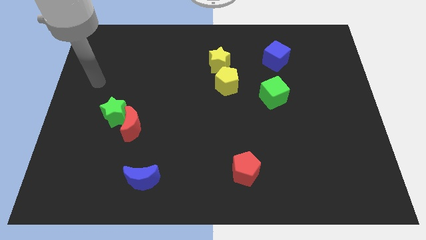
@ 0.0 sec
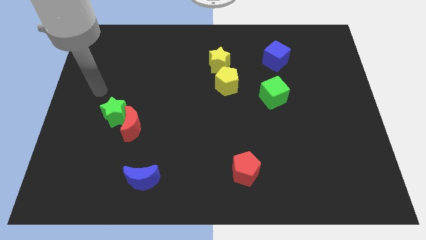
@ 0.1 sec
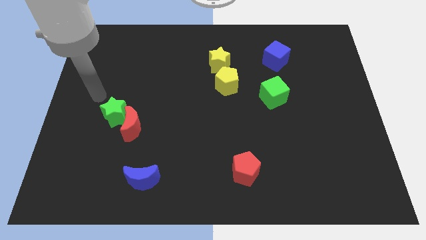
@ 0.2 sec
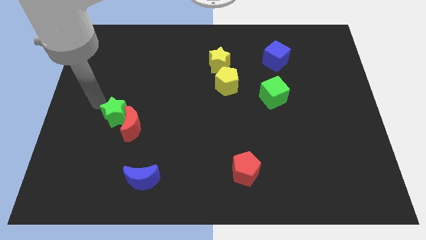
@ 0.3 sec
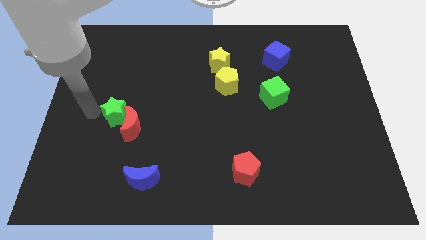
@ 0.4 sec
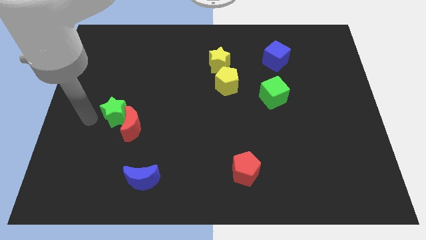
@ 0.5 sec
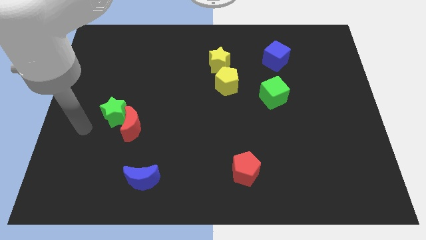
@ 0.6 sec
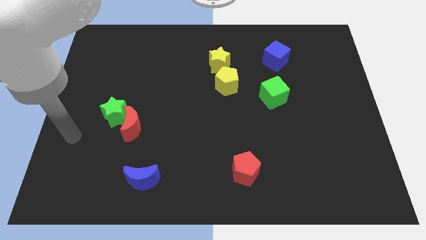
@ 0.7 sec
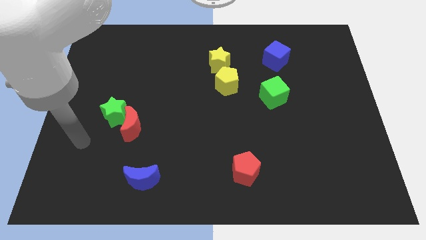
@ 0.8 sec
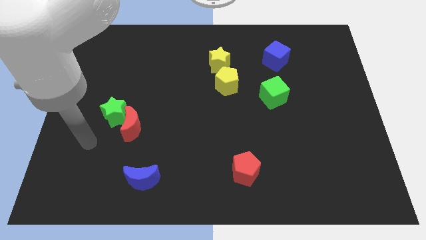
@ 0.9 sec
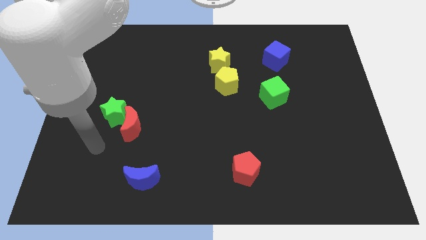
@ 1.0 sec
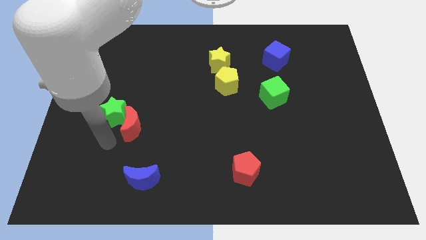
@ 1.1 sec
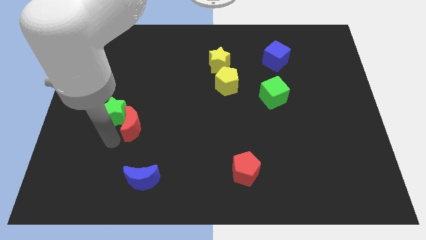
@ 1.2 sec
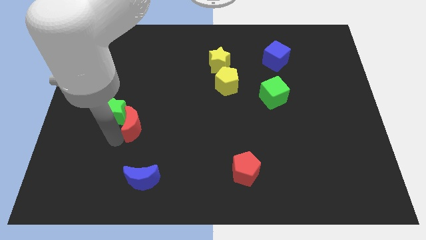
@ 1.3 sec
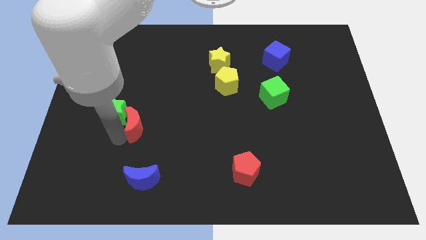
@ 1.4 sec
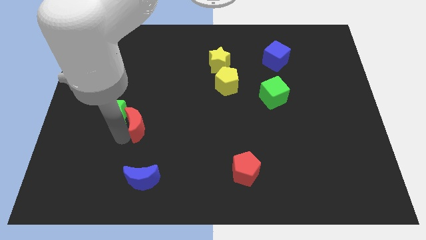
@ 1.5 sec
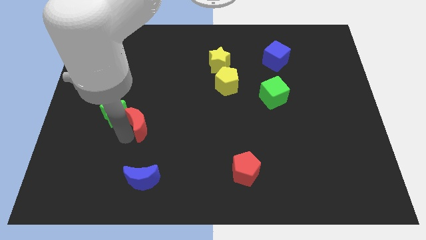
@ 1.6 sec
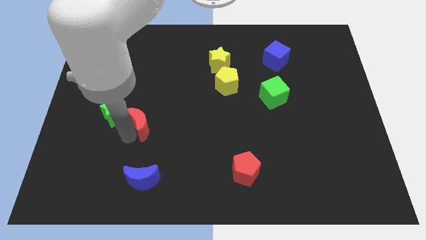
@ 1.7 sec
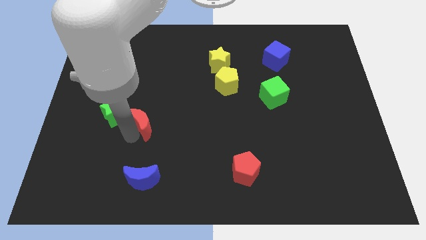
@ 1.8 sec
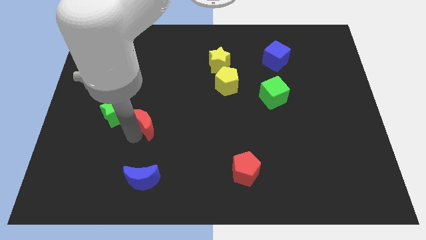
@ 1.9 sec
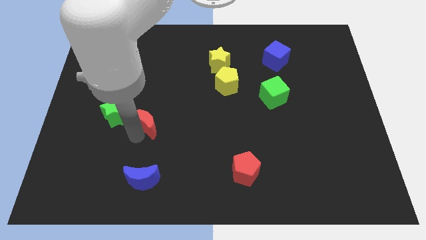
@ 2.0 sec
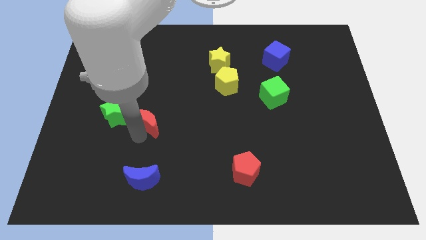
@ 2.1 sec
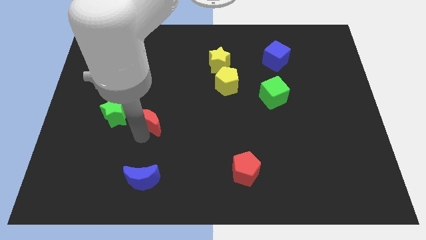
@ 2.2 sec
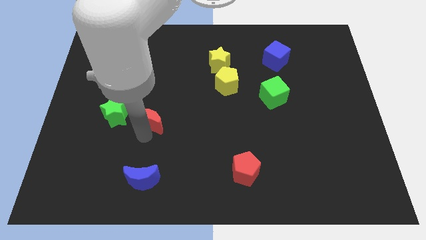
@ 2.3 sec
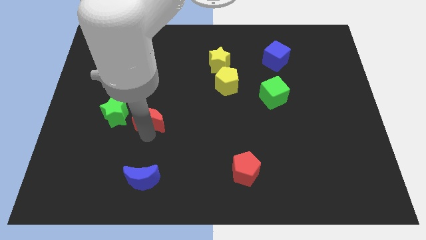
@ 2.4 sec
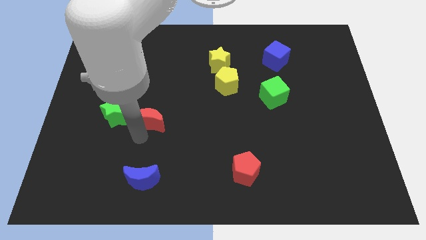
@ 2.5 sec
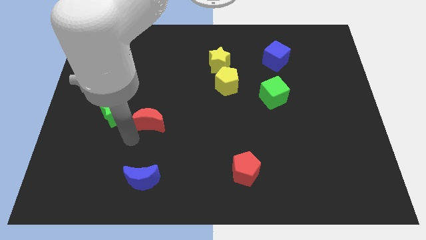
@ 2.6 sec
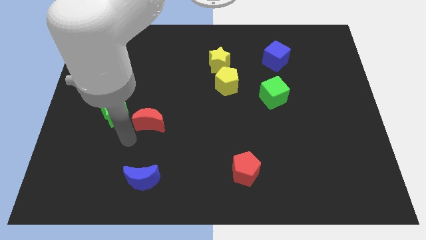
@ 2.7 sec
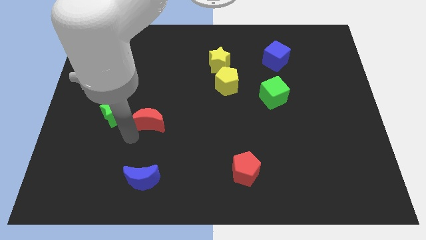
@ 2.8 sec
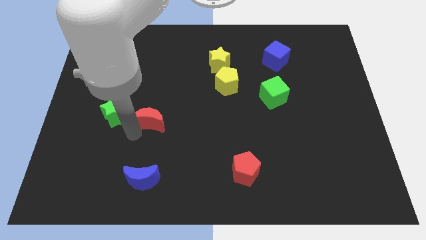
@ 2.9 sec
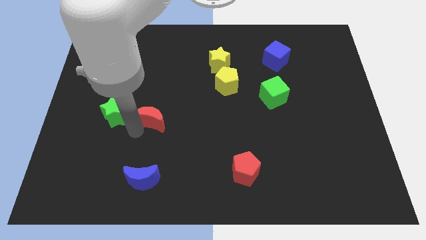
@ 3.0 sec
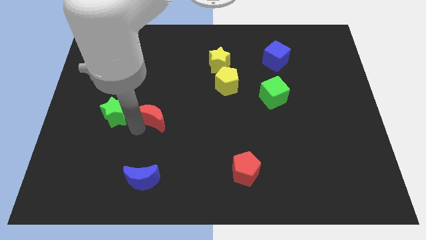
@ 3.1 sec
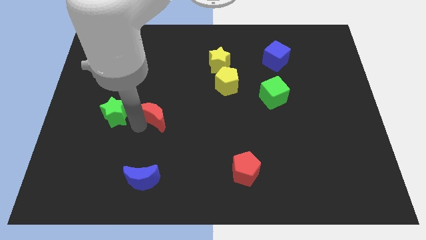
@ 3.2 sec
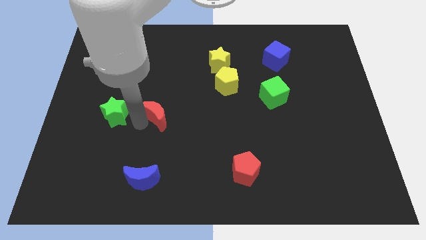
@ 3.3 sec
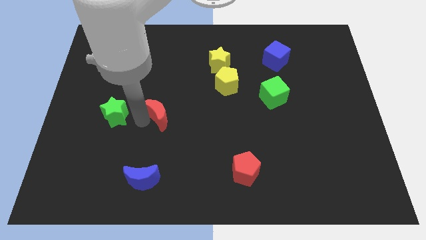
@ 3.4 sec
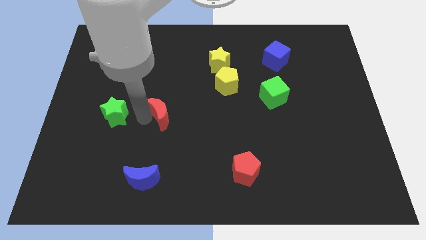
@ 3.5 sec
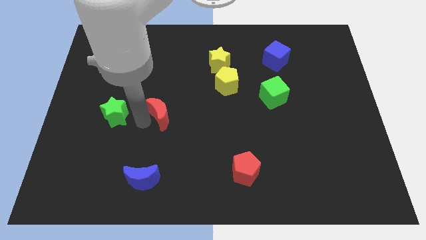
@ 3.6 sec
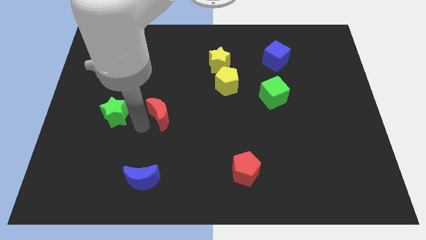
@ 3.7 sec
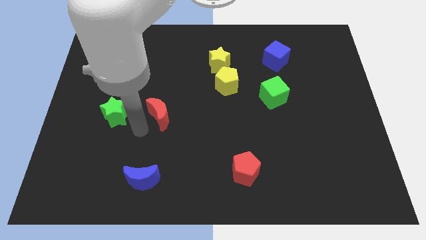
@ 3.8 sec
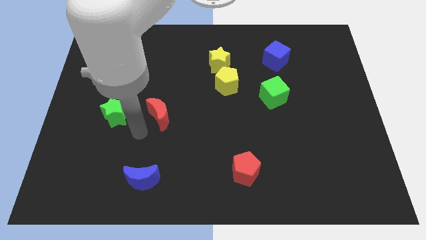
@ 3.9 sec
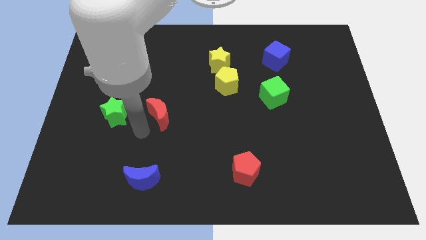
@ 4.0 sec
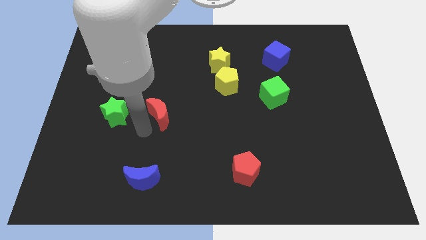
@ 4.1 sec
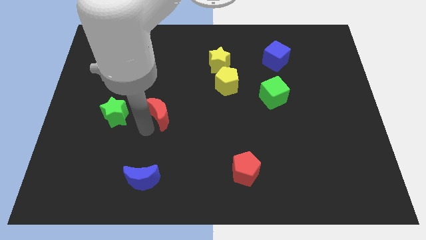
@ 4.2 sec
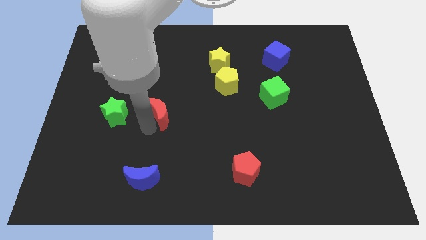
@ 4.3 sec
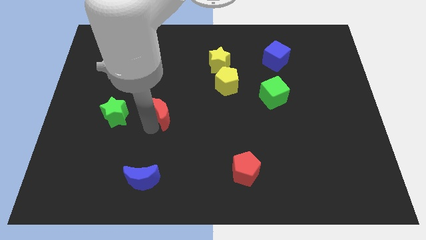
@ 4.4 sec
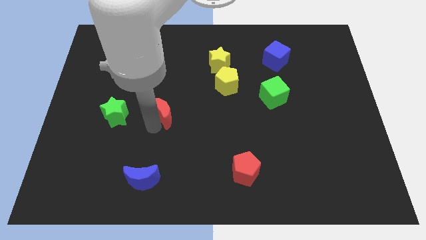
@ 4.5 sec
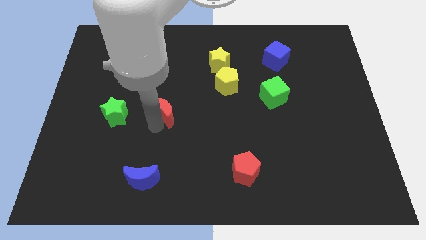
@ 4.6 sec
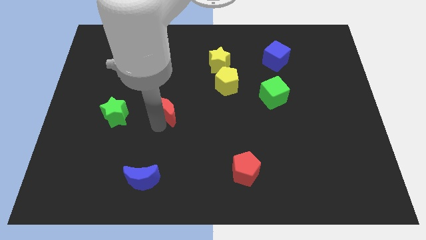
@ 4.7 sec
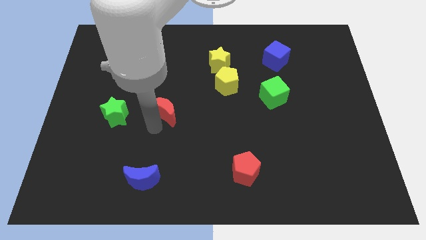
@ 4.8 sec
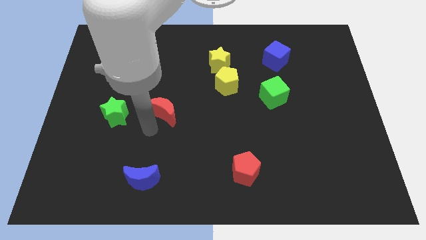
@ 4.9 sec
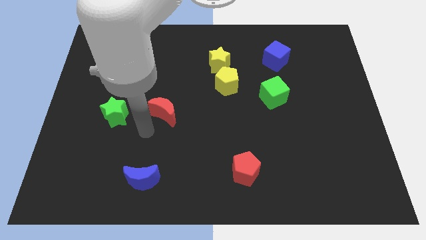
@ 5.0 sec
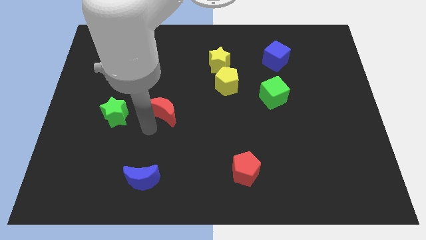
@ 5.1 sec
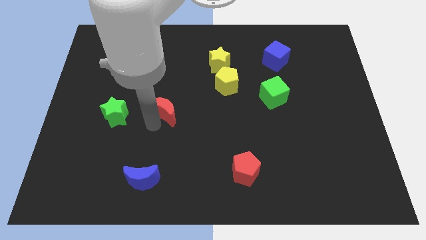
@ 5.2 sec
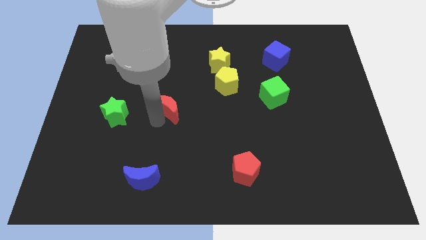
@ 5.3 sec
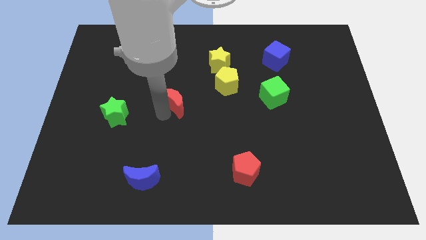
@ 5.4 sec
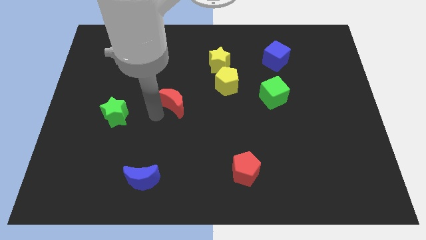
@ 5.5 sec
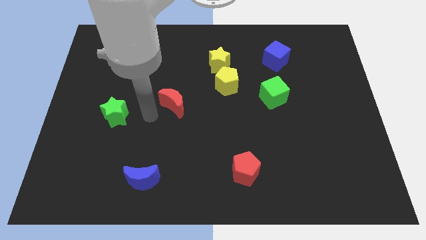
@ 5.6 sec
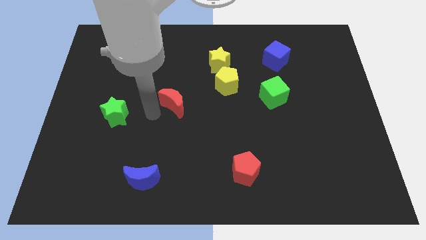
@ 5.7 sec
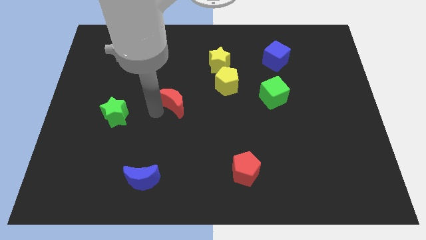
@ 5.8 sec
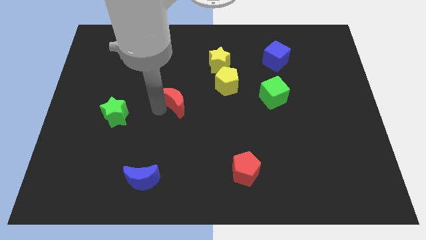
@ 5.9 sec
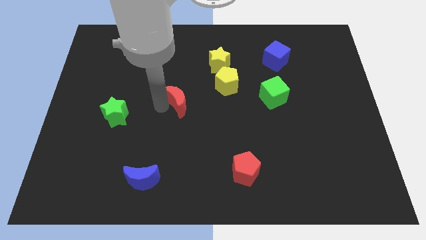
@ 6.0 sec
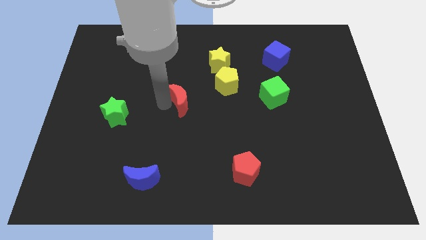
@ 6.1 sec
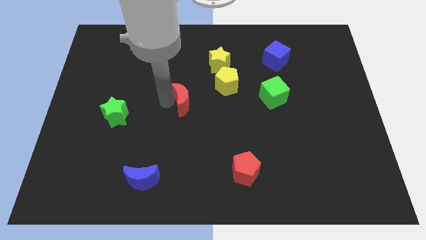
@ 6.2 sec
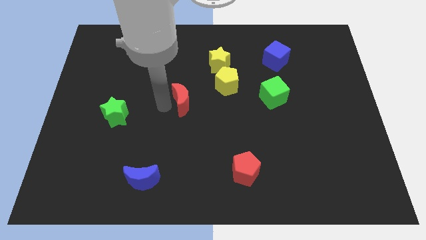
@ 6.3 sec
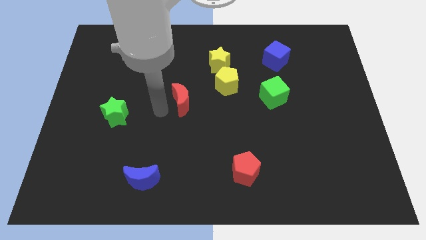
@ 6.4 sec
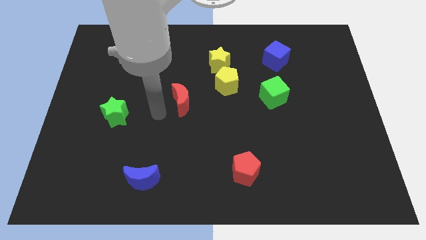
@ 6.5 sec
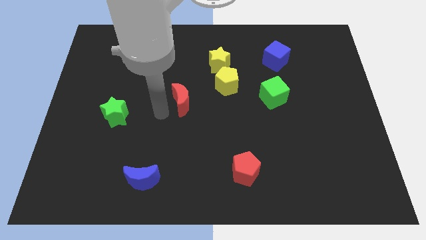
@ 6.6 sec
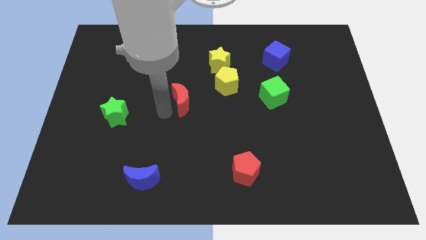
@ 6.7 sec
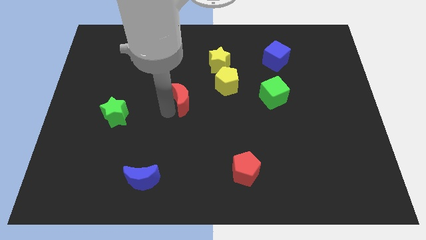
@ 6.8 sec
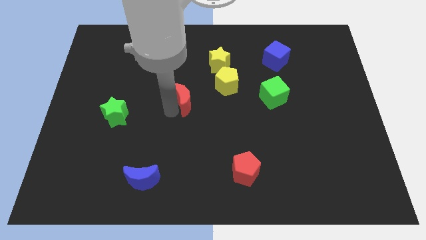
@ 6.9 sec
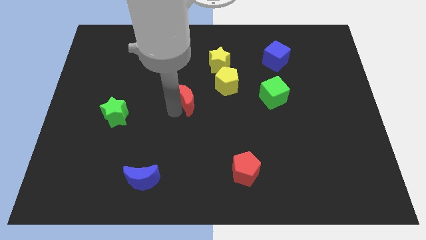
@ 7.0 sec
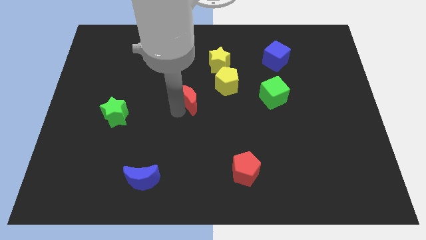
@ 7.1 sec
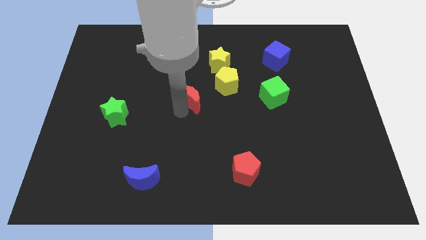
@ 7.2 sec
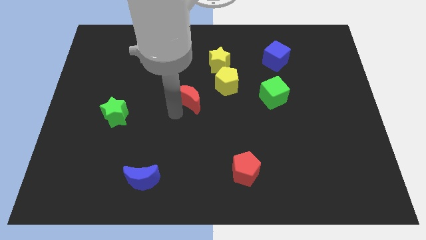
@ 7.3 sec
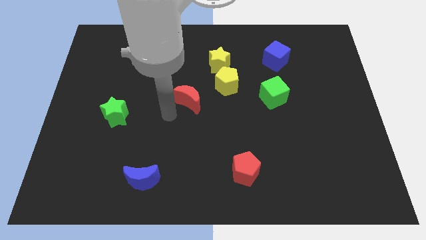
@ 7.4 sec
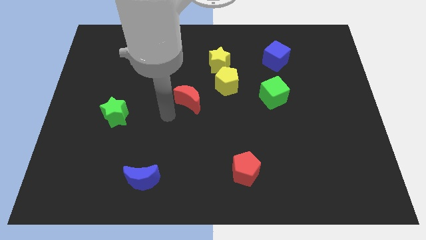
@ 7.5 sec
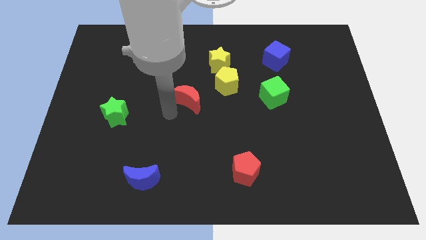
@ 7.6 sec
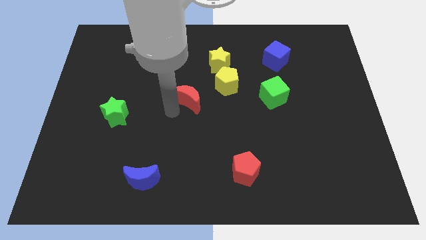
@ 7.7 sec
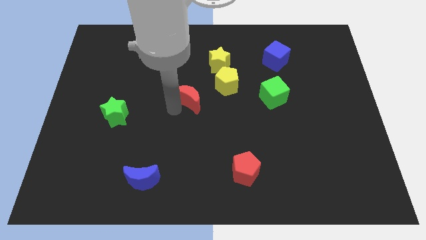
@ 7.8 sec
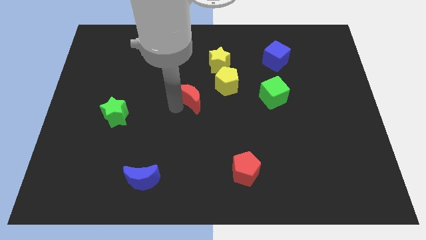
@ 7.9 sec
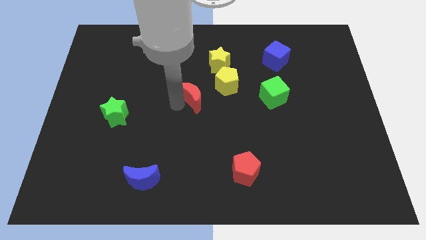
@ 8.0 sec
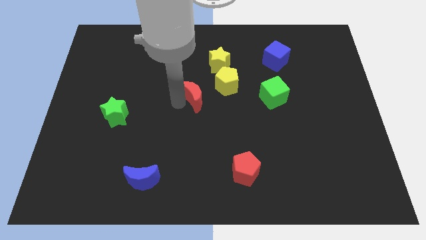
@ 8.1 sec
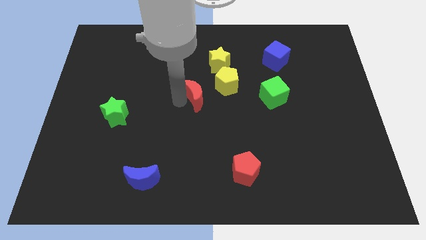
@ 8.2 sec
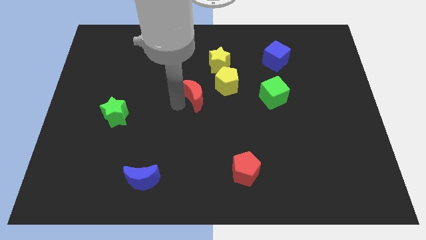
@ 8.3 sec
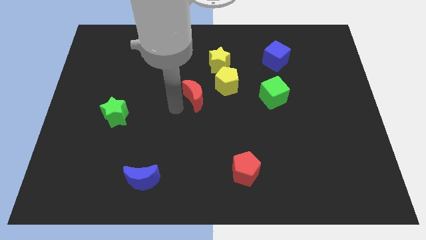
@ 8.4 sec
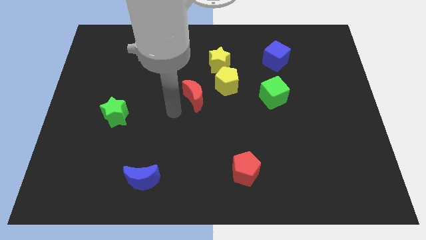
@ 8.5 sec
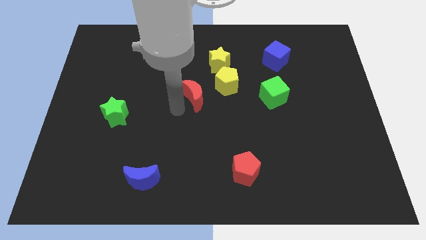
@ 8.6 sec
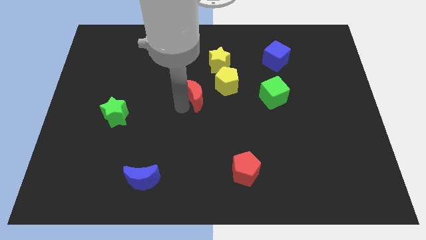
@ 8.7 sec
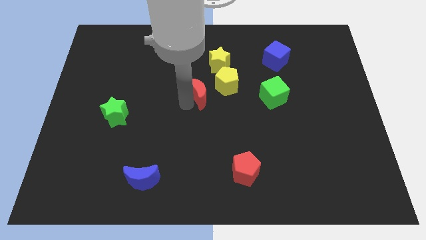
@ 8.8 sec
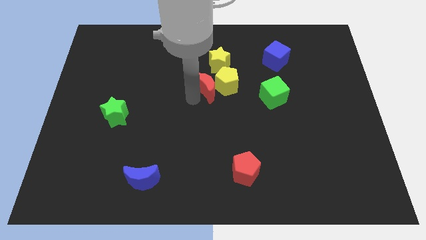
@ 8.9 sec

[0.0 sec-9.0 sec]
push the red moon close to the yellow pentagon
